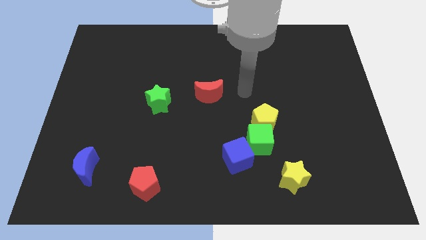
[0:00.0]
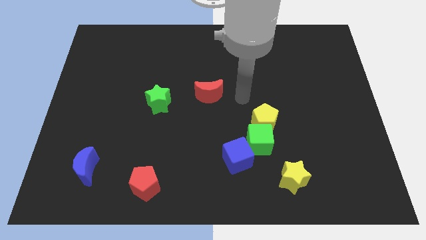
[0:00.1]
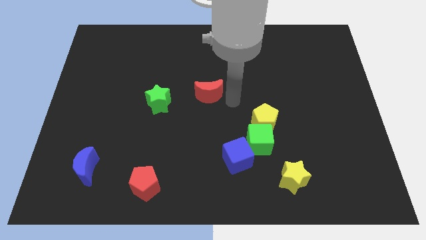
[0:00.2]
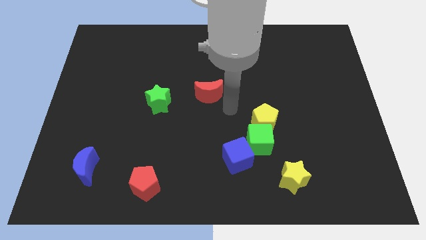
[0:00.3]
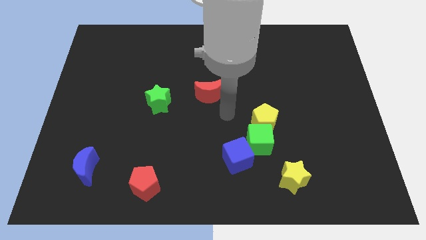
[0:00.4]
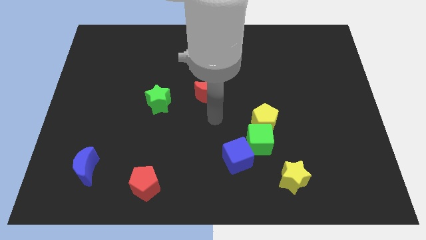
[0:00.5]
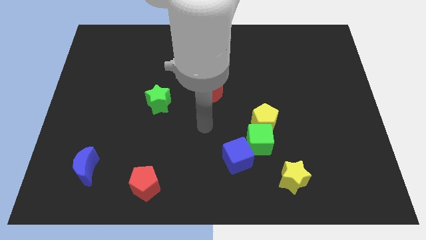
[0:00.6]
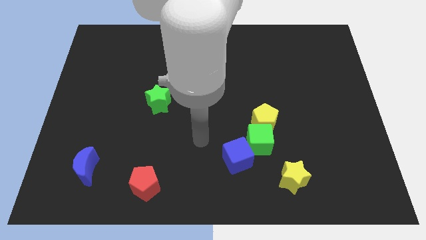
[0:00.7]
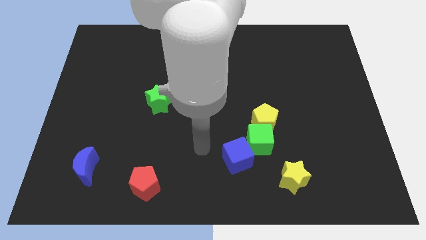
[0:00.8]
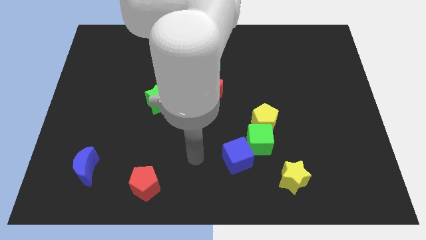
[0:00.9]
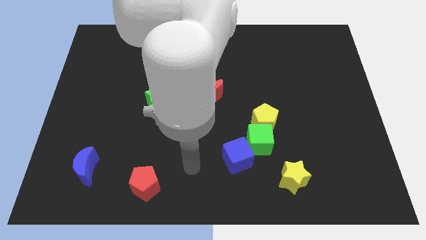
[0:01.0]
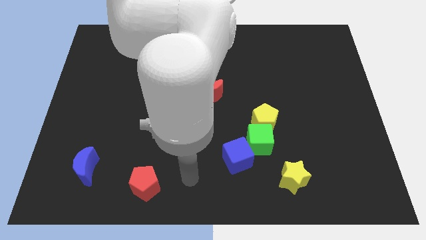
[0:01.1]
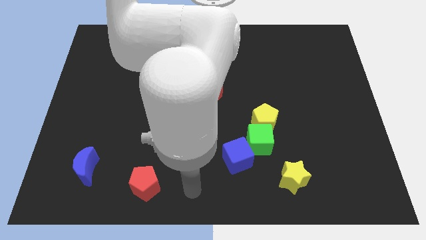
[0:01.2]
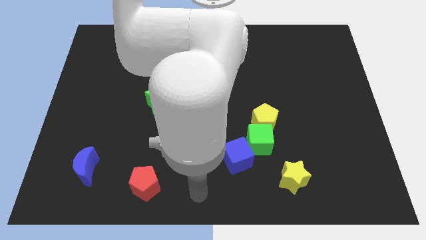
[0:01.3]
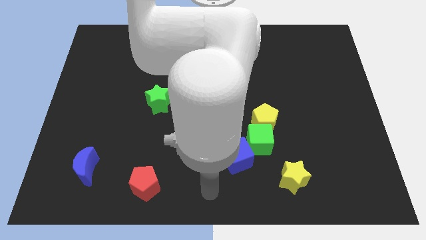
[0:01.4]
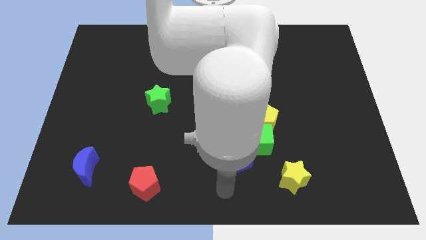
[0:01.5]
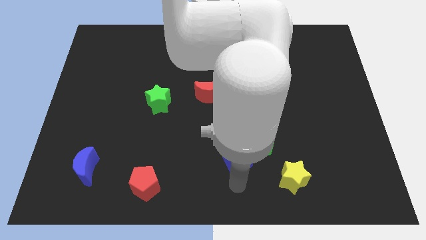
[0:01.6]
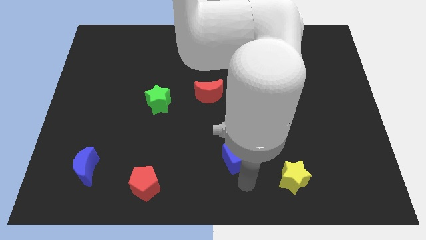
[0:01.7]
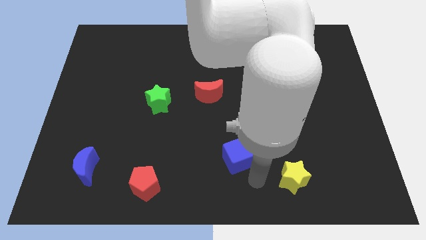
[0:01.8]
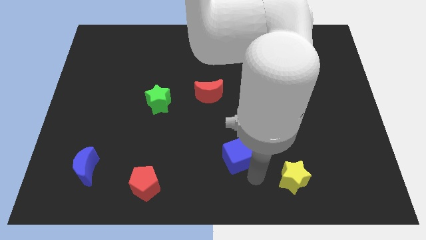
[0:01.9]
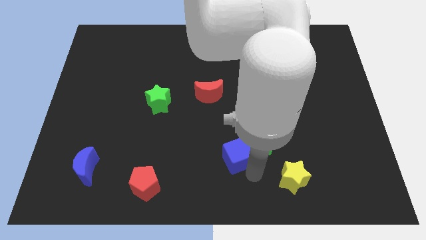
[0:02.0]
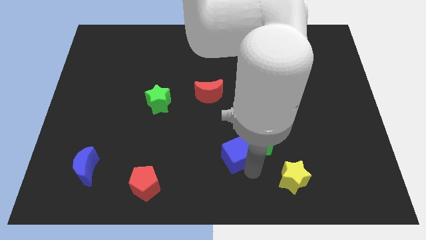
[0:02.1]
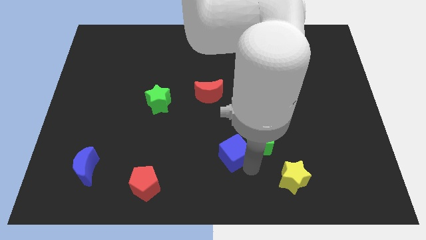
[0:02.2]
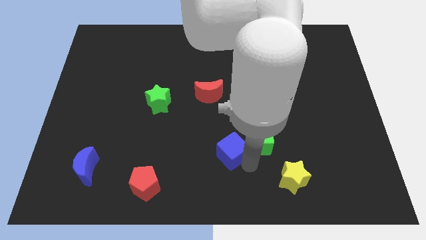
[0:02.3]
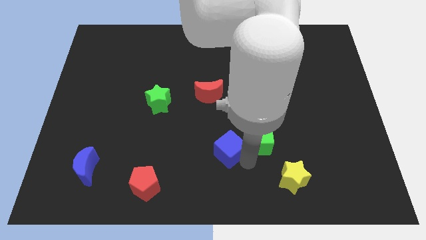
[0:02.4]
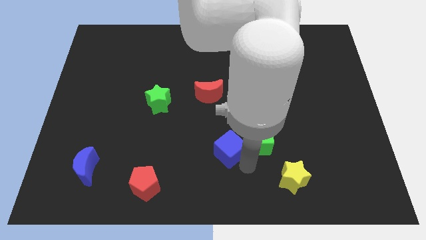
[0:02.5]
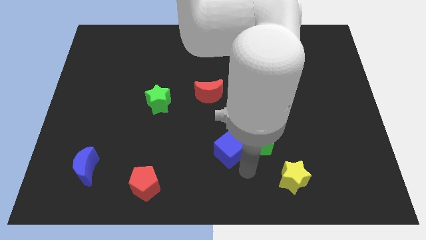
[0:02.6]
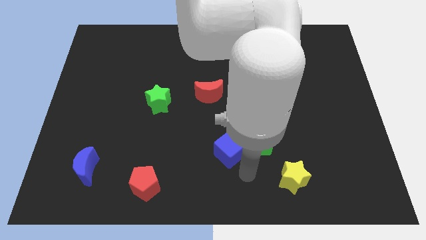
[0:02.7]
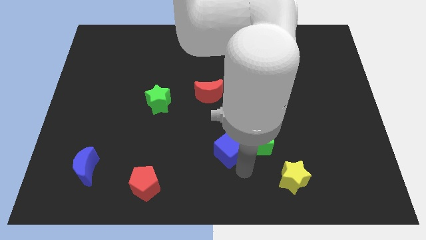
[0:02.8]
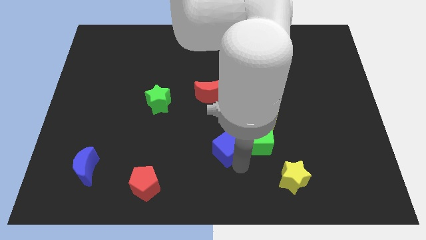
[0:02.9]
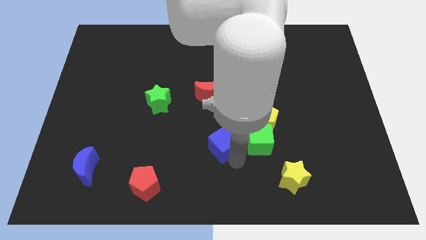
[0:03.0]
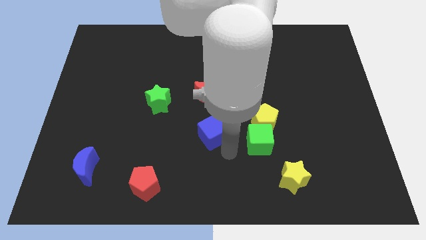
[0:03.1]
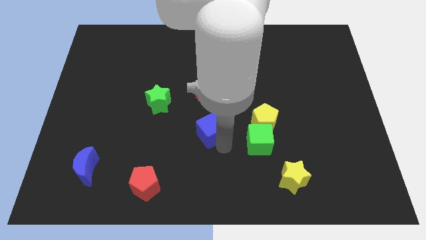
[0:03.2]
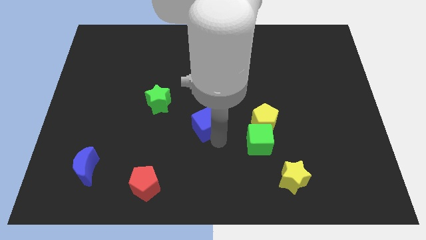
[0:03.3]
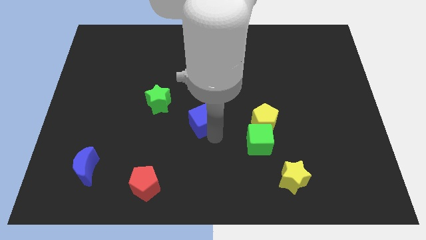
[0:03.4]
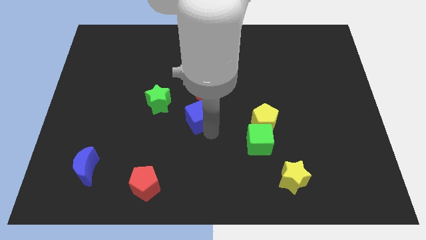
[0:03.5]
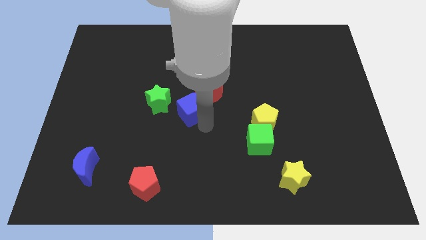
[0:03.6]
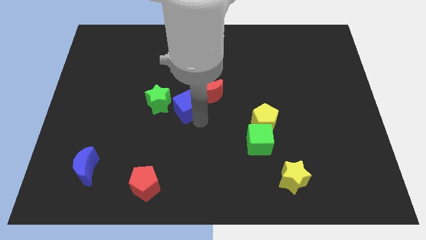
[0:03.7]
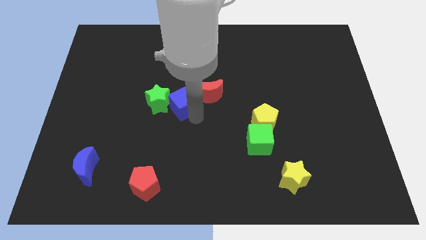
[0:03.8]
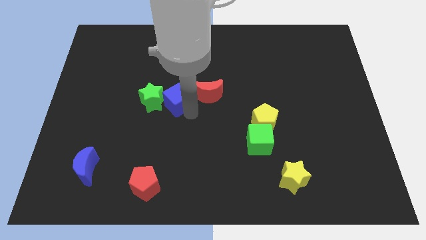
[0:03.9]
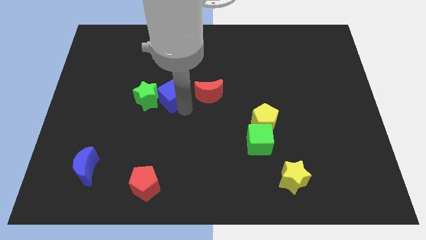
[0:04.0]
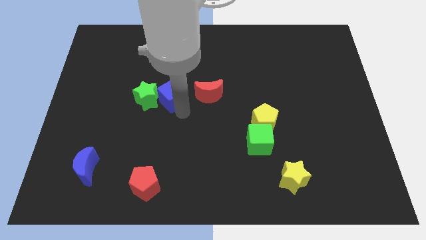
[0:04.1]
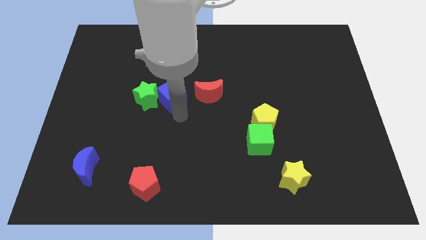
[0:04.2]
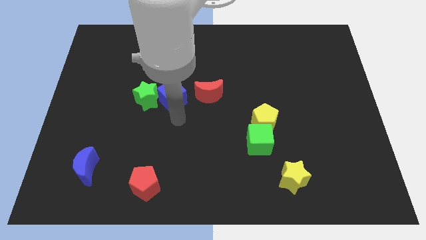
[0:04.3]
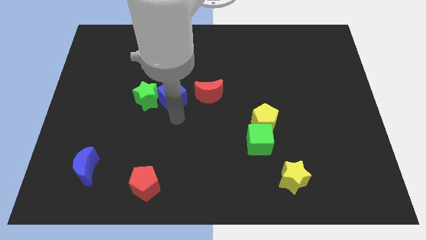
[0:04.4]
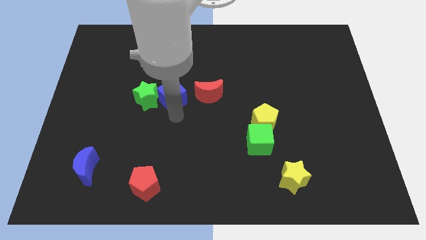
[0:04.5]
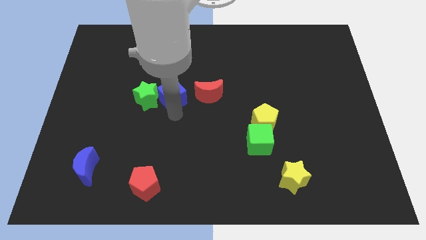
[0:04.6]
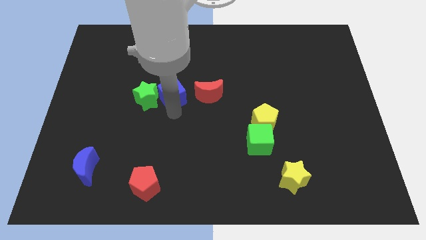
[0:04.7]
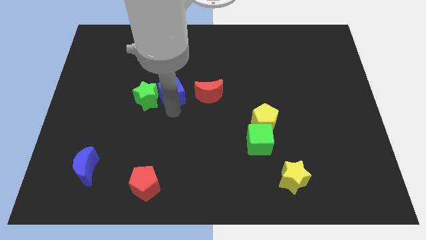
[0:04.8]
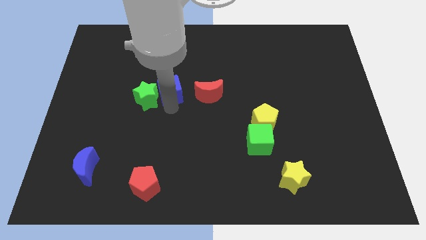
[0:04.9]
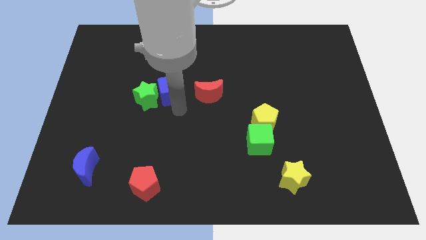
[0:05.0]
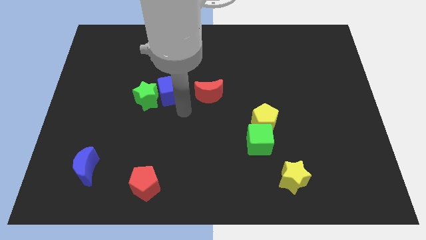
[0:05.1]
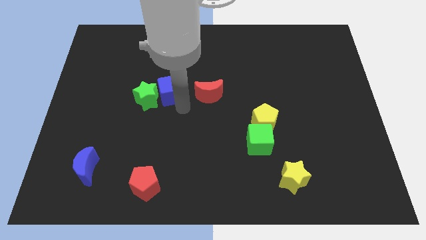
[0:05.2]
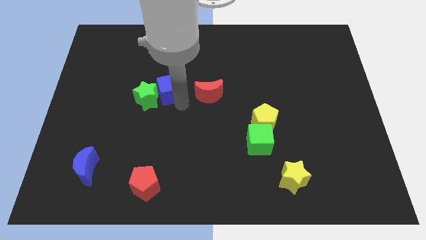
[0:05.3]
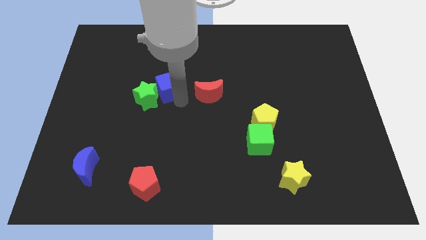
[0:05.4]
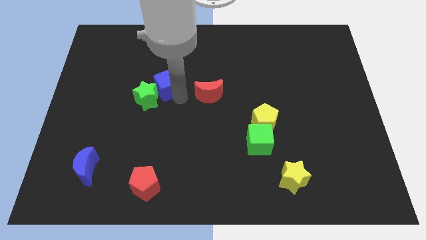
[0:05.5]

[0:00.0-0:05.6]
move the blue cube to the top side of the green star
